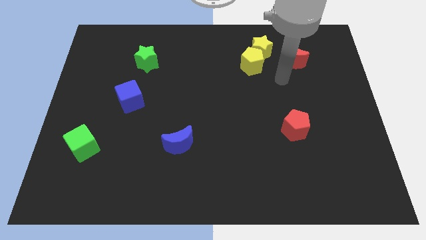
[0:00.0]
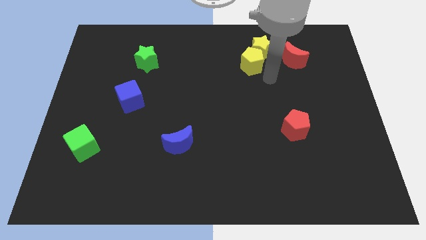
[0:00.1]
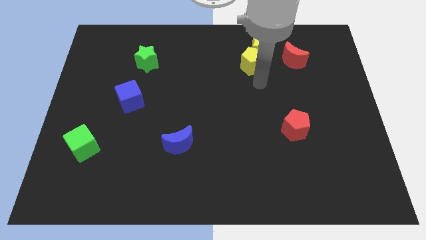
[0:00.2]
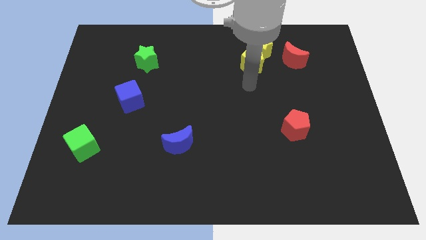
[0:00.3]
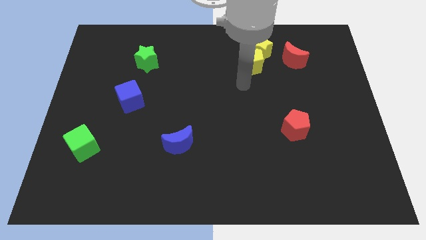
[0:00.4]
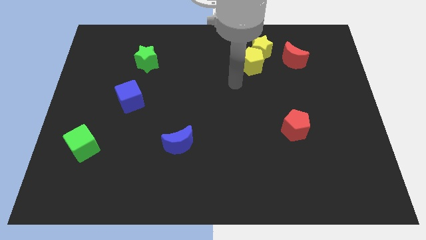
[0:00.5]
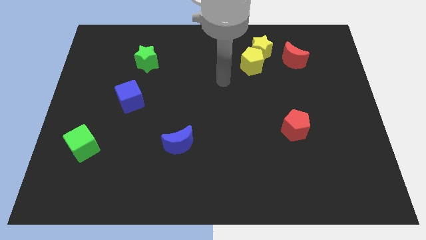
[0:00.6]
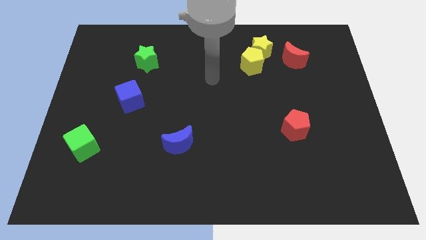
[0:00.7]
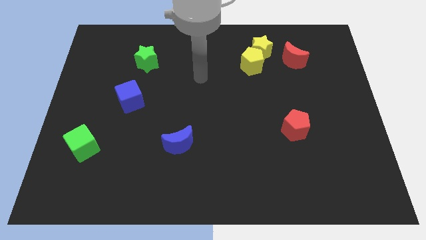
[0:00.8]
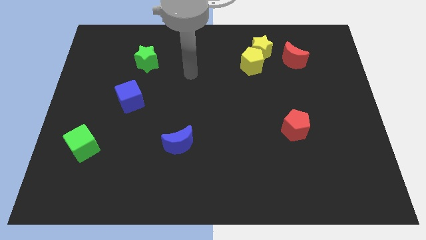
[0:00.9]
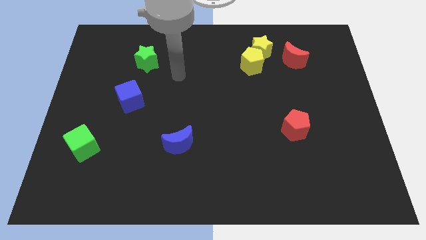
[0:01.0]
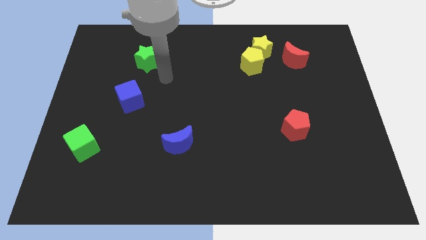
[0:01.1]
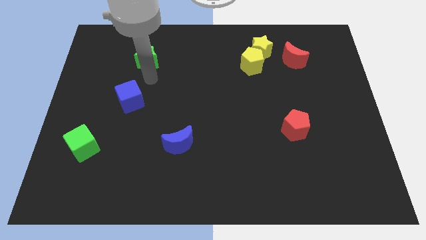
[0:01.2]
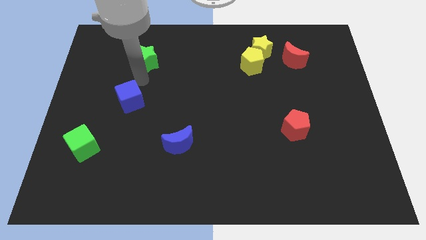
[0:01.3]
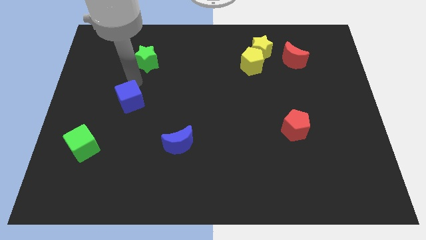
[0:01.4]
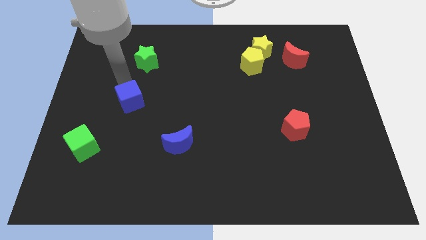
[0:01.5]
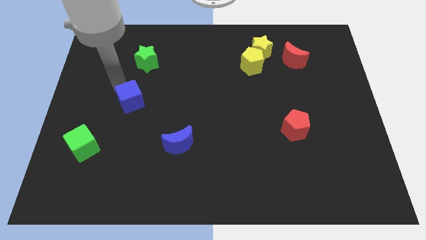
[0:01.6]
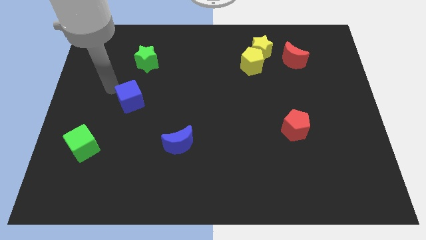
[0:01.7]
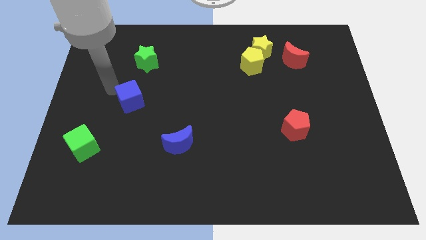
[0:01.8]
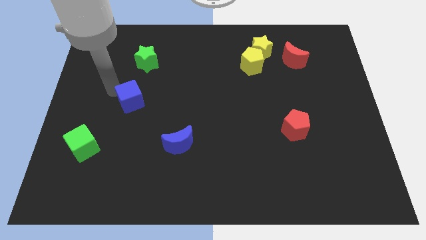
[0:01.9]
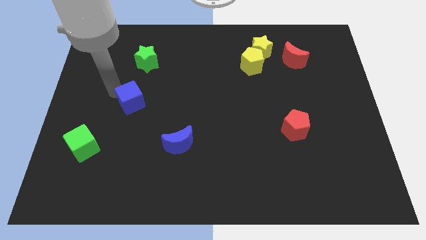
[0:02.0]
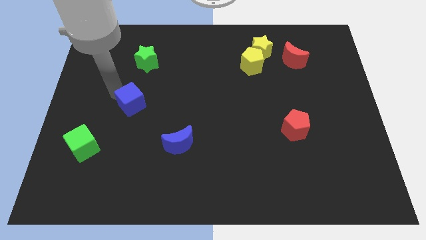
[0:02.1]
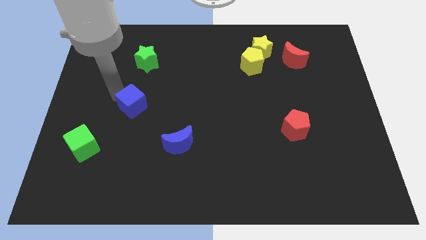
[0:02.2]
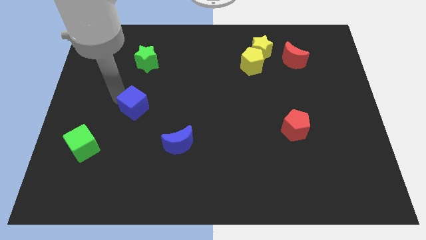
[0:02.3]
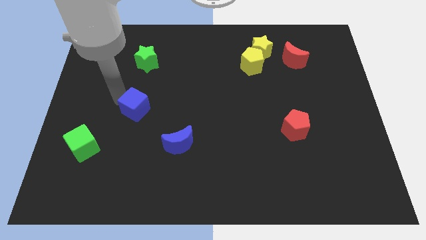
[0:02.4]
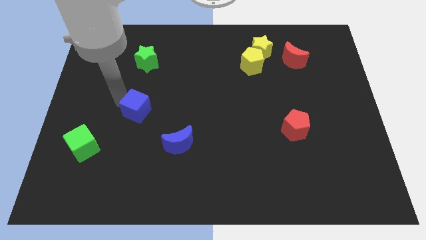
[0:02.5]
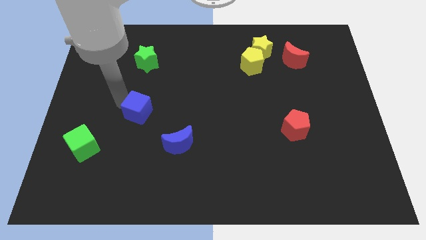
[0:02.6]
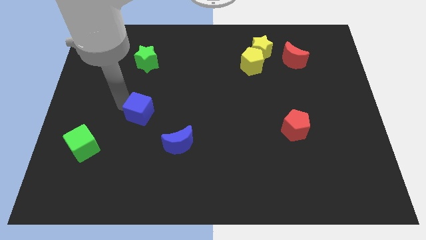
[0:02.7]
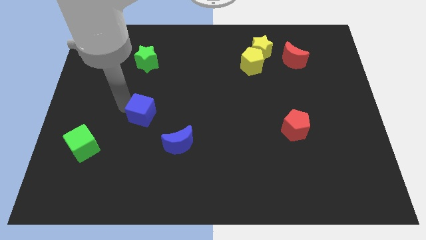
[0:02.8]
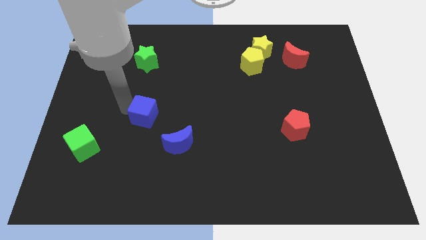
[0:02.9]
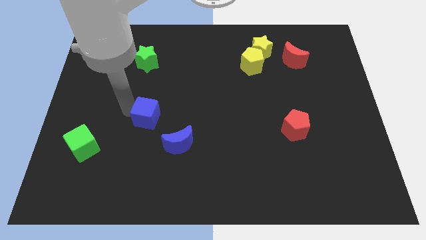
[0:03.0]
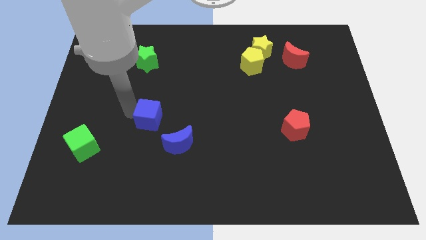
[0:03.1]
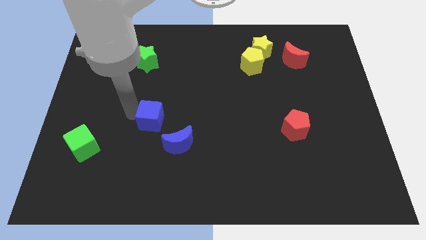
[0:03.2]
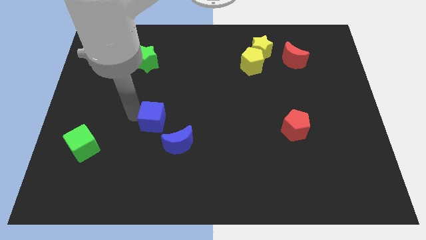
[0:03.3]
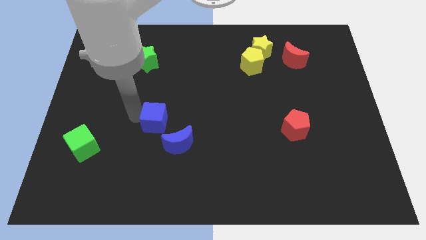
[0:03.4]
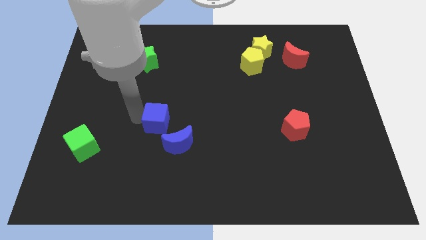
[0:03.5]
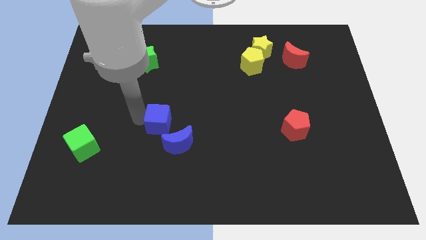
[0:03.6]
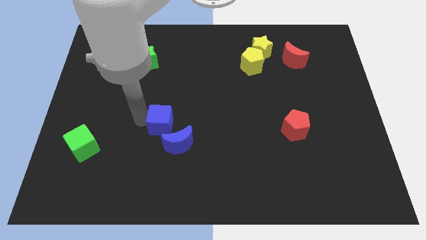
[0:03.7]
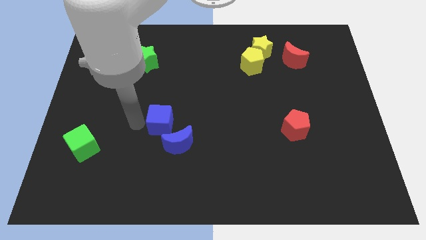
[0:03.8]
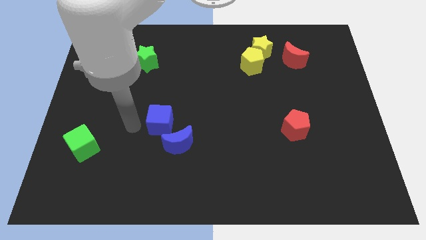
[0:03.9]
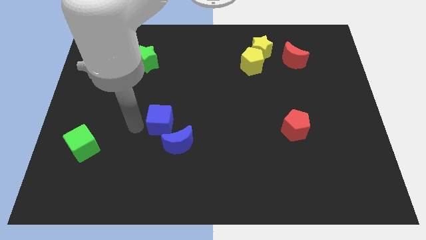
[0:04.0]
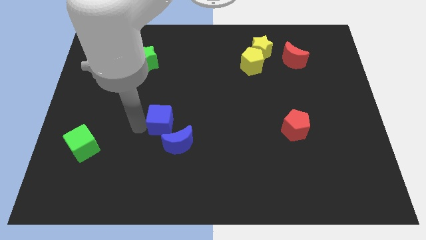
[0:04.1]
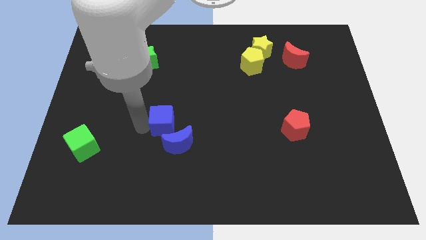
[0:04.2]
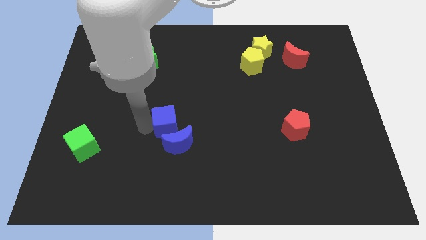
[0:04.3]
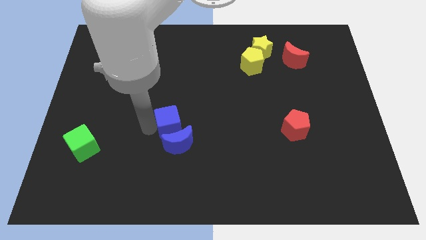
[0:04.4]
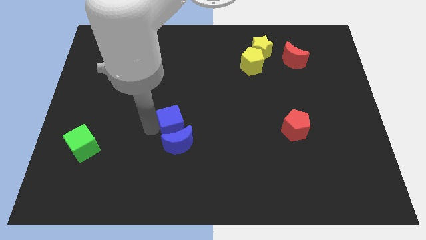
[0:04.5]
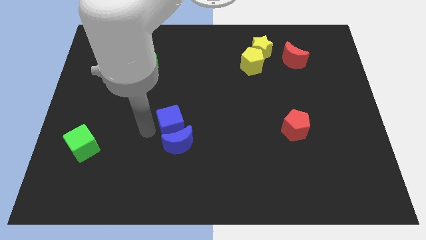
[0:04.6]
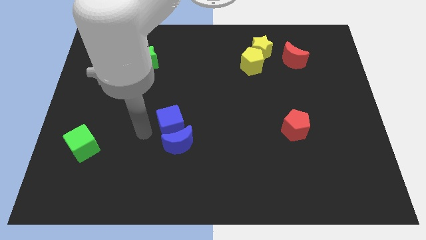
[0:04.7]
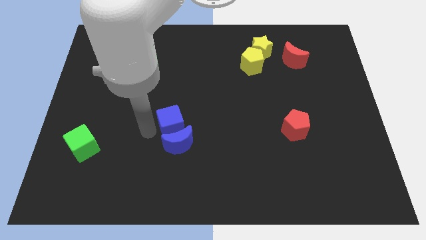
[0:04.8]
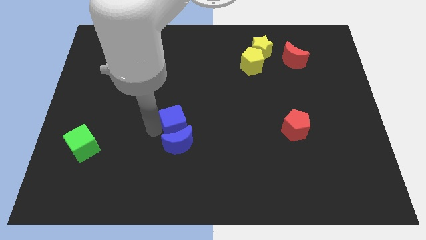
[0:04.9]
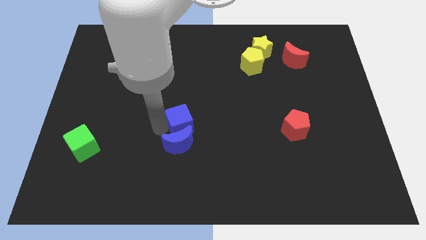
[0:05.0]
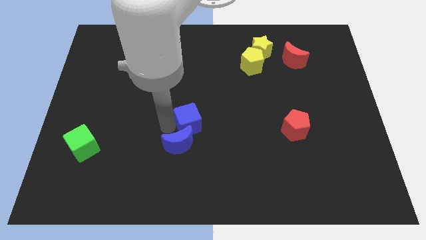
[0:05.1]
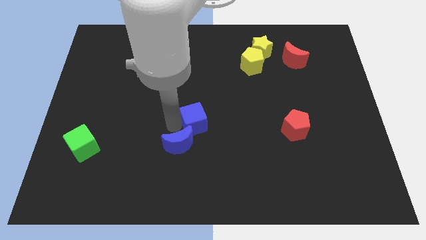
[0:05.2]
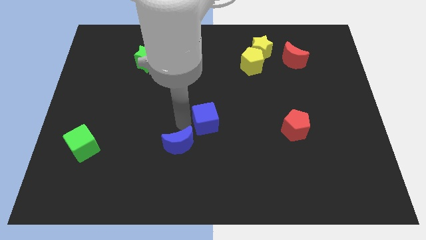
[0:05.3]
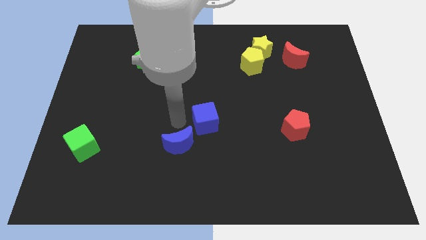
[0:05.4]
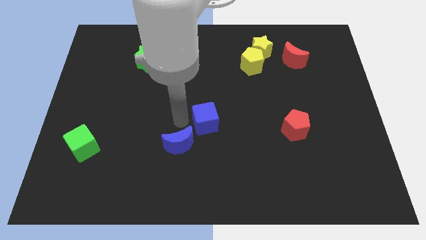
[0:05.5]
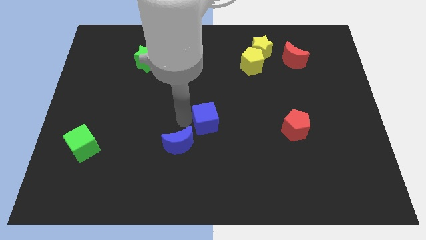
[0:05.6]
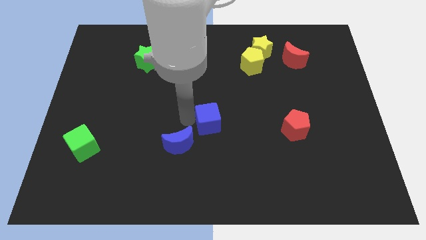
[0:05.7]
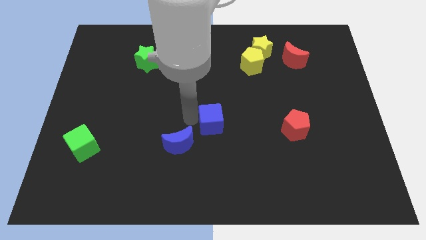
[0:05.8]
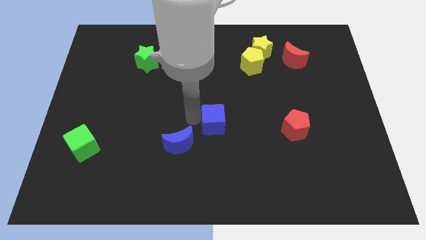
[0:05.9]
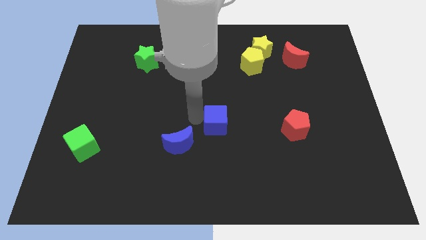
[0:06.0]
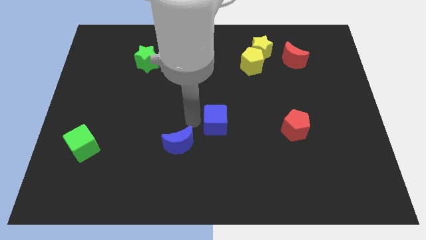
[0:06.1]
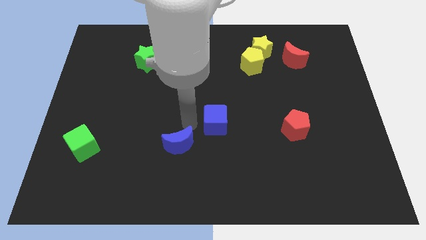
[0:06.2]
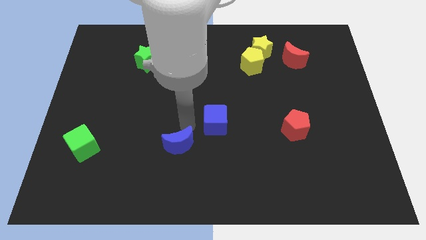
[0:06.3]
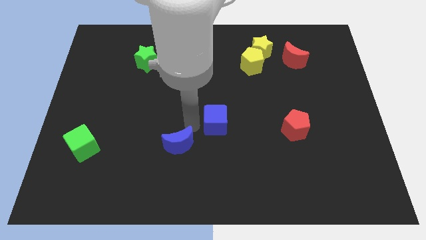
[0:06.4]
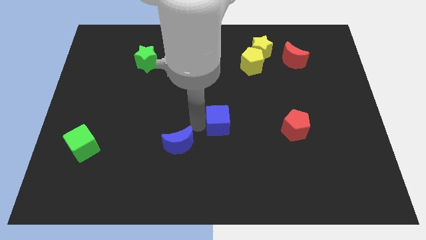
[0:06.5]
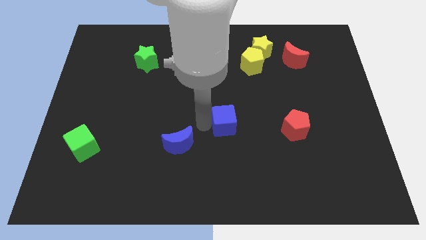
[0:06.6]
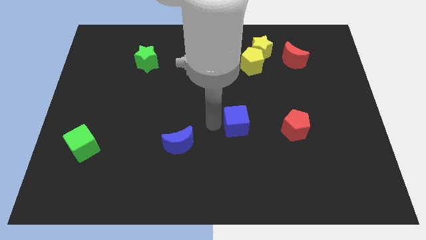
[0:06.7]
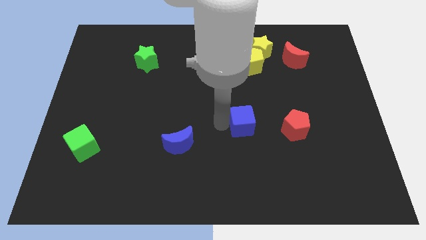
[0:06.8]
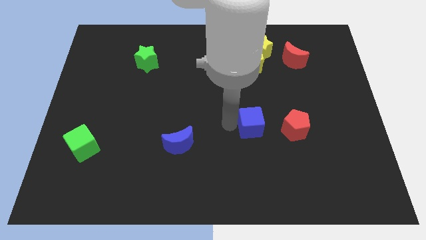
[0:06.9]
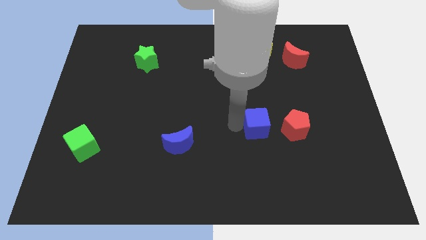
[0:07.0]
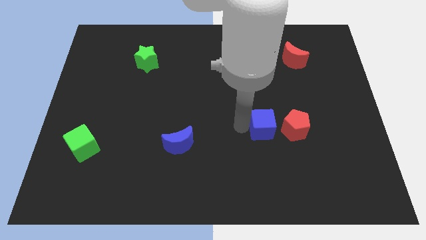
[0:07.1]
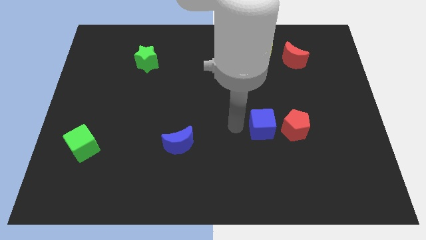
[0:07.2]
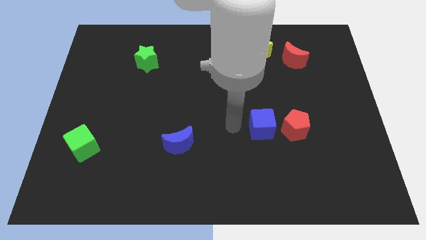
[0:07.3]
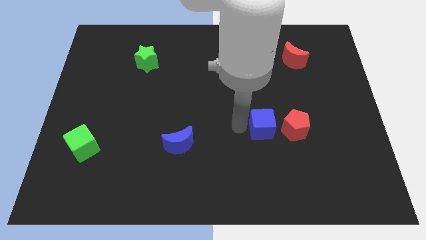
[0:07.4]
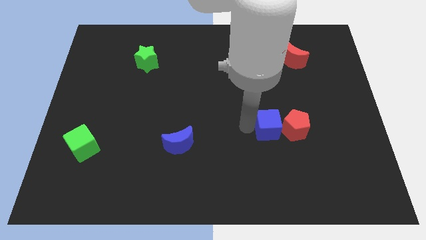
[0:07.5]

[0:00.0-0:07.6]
slide the blue cube to the red pentagon
